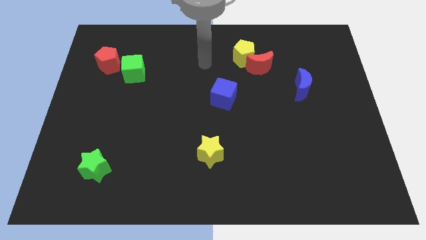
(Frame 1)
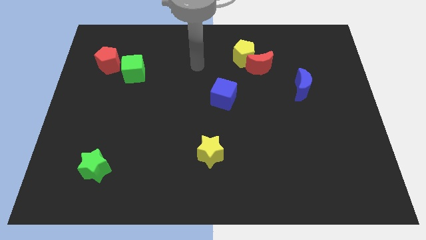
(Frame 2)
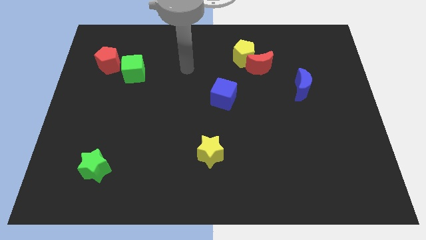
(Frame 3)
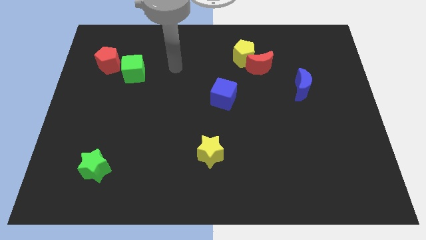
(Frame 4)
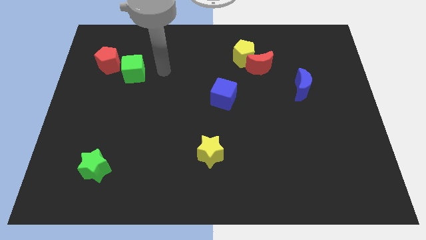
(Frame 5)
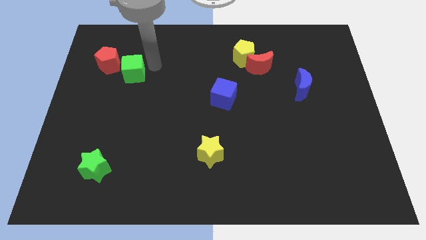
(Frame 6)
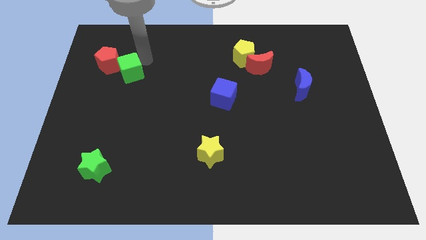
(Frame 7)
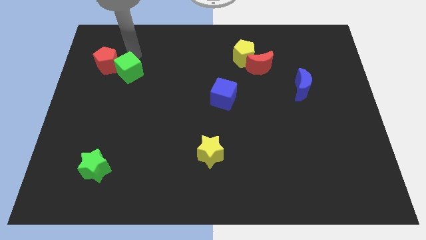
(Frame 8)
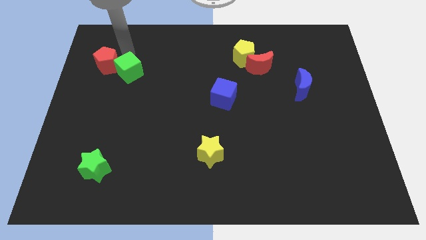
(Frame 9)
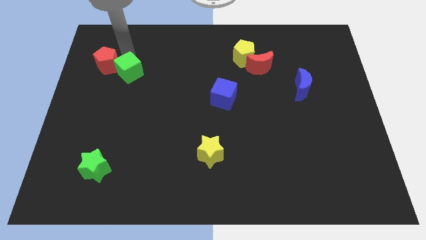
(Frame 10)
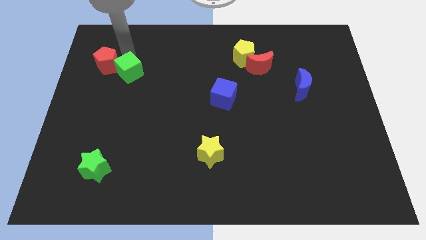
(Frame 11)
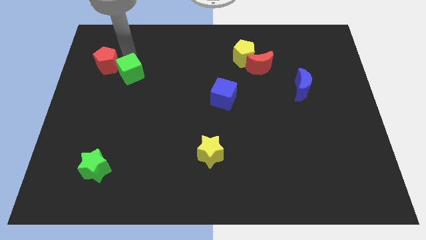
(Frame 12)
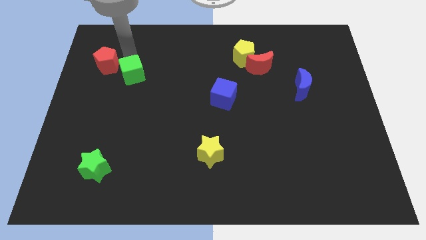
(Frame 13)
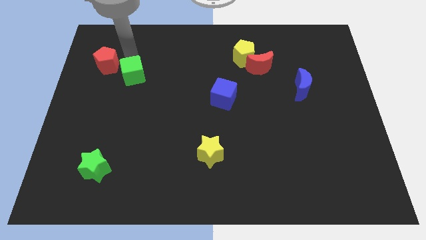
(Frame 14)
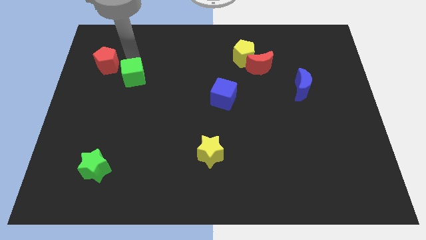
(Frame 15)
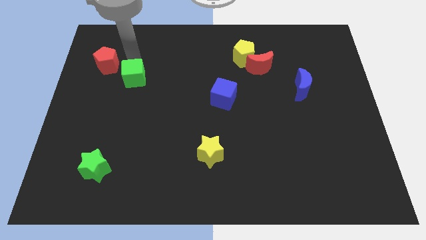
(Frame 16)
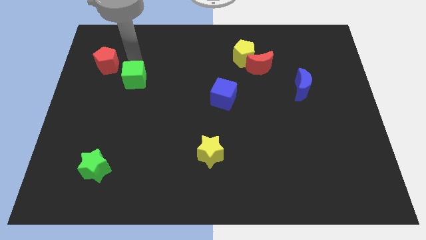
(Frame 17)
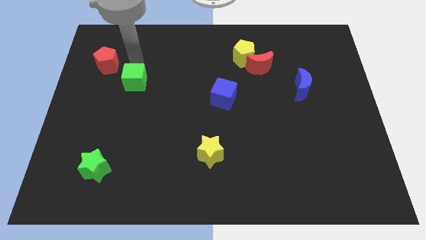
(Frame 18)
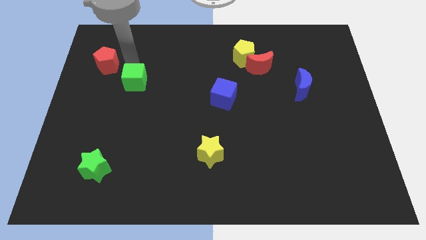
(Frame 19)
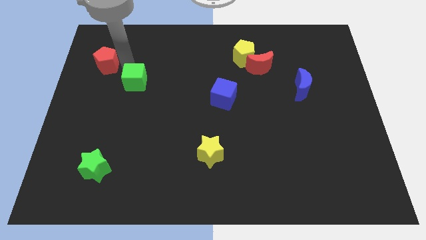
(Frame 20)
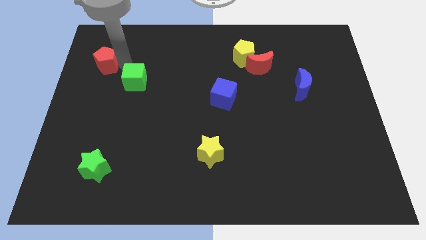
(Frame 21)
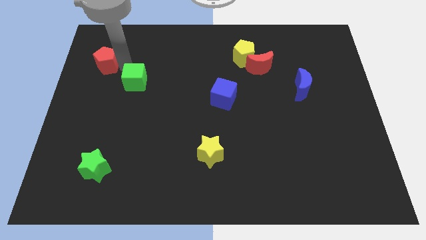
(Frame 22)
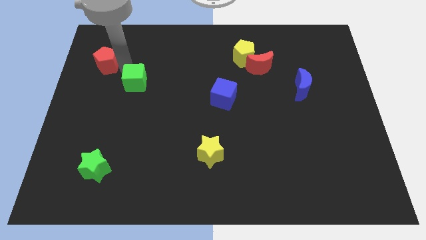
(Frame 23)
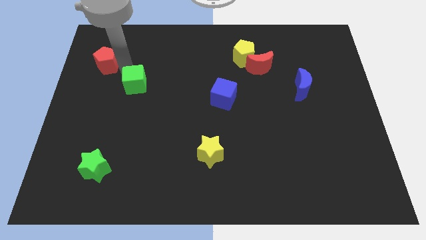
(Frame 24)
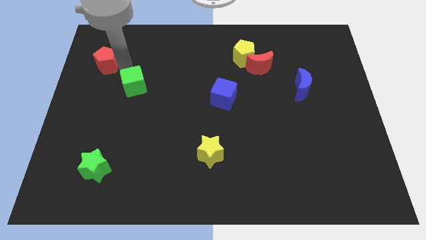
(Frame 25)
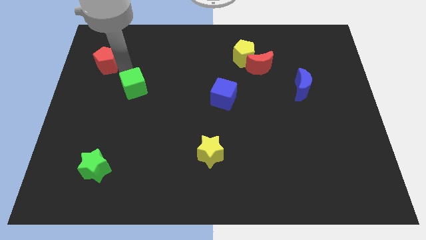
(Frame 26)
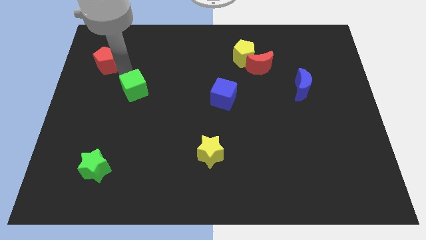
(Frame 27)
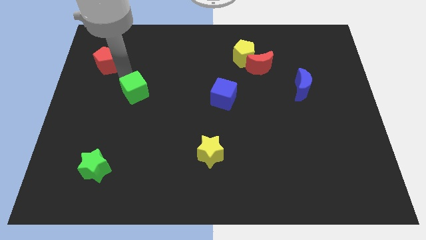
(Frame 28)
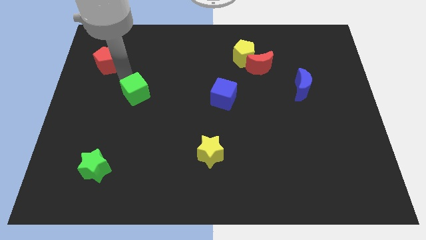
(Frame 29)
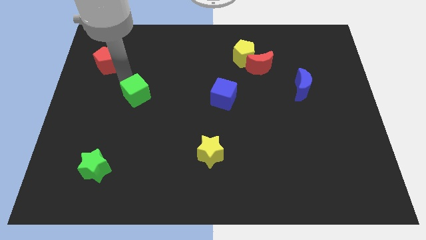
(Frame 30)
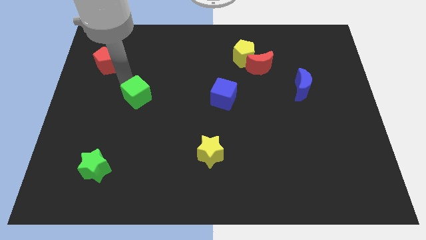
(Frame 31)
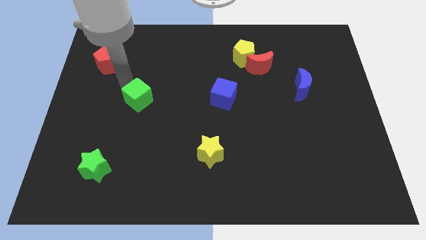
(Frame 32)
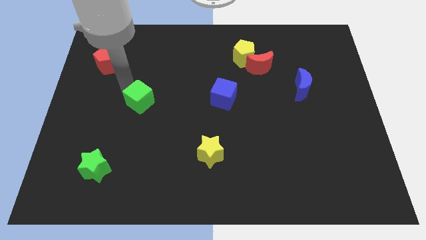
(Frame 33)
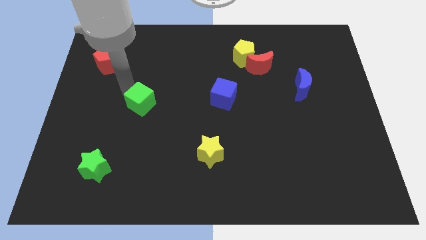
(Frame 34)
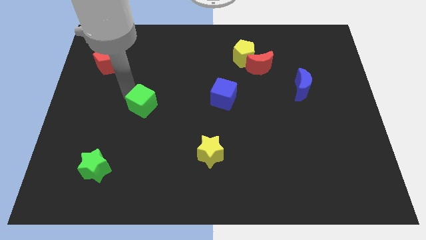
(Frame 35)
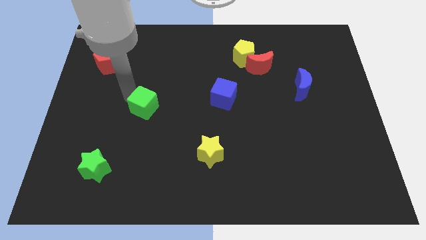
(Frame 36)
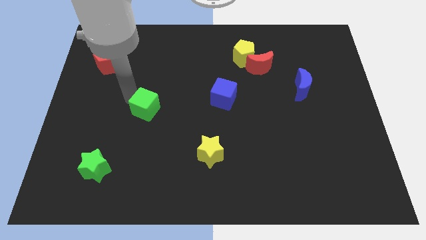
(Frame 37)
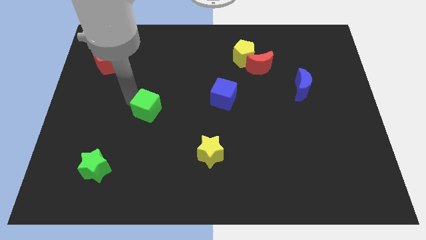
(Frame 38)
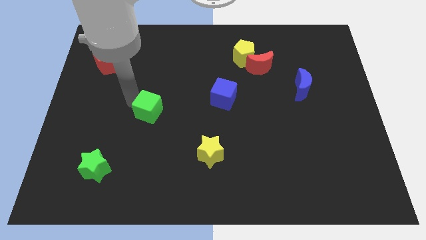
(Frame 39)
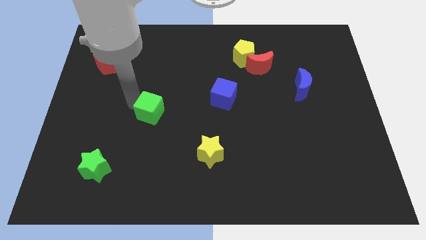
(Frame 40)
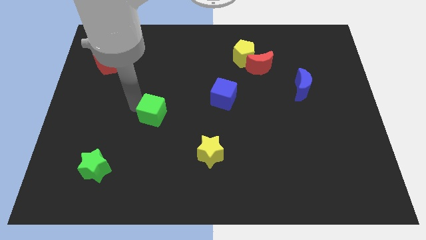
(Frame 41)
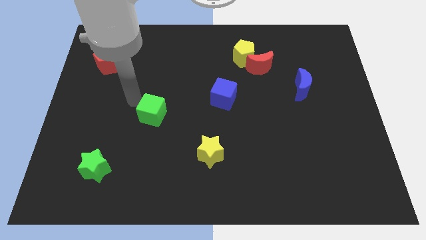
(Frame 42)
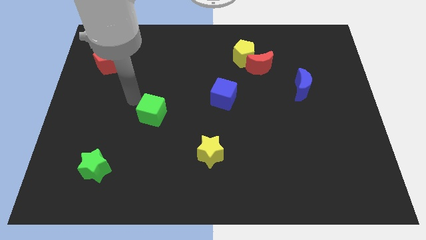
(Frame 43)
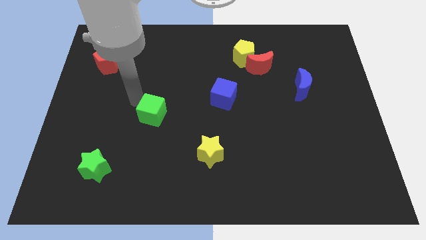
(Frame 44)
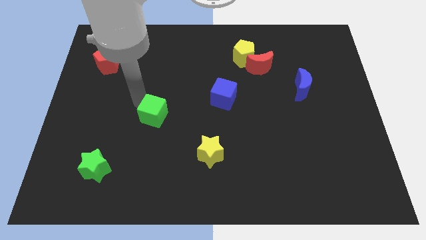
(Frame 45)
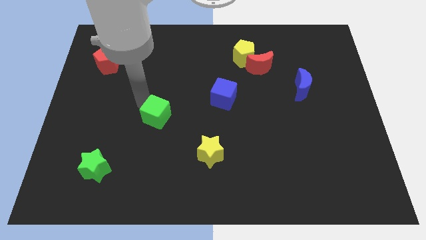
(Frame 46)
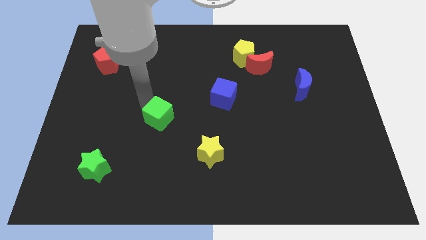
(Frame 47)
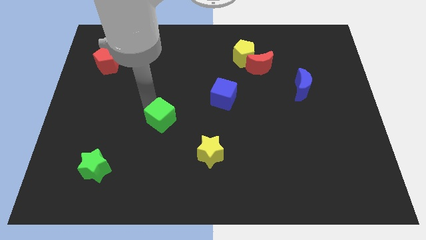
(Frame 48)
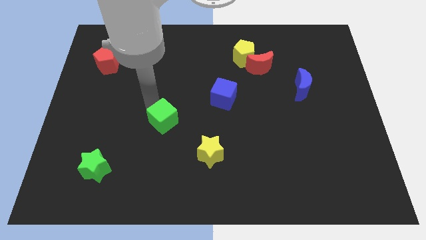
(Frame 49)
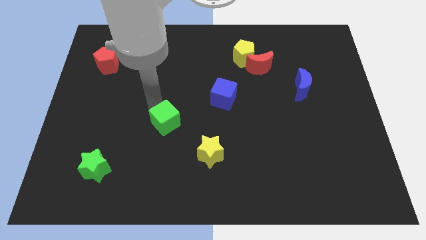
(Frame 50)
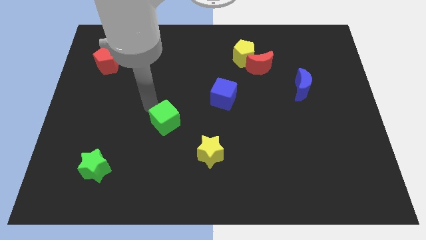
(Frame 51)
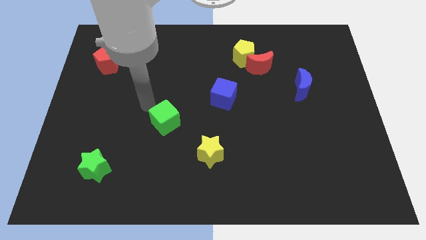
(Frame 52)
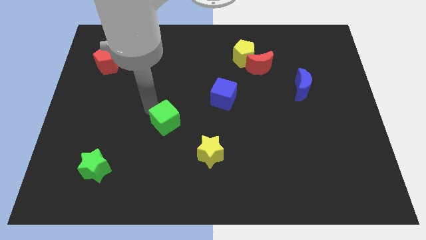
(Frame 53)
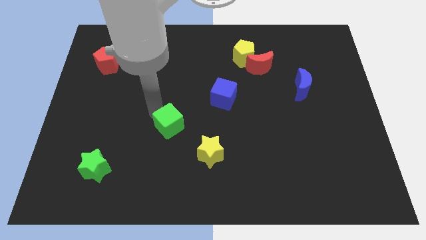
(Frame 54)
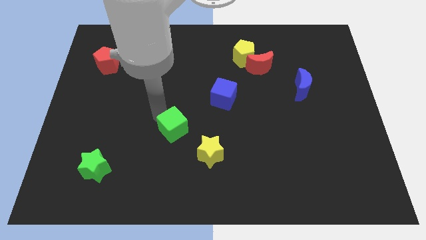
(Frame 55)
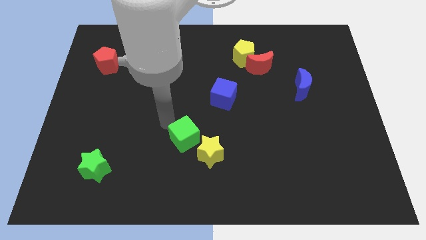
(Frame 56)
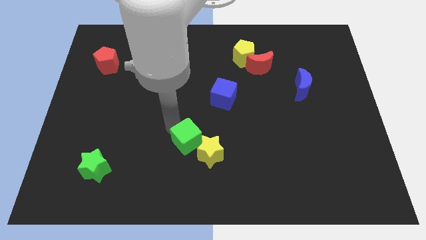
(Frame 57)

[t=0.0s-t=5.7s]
push the green cube to the yellow star

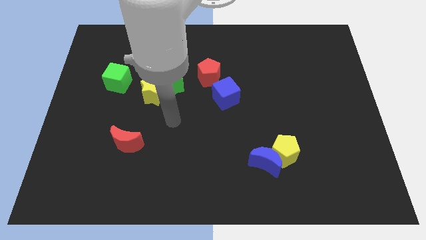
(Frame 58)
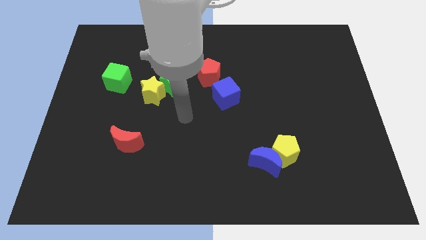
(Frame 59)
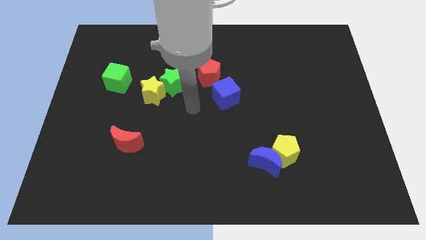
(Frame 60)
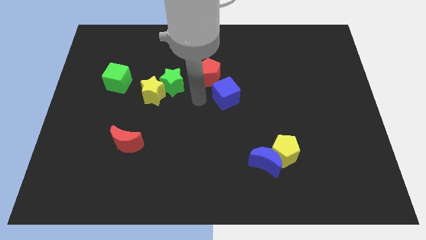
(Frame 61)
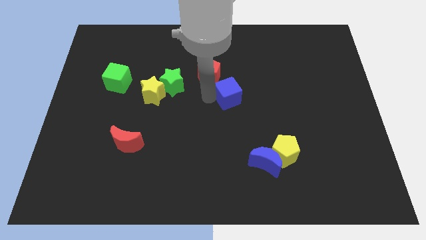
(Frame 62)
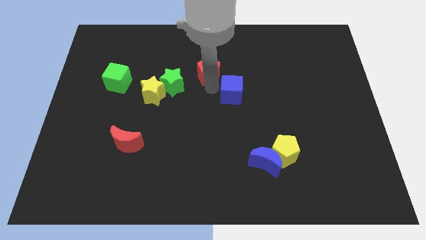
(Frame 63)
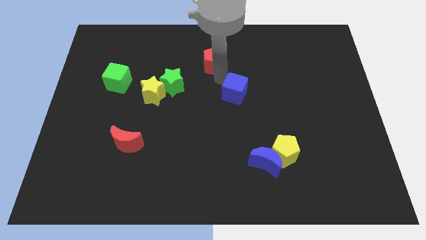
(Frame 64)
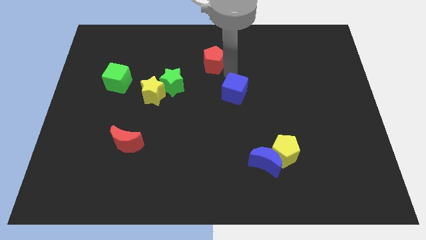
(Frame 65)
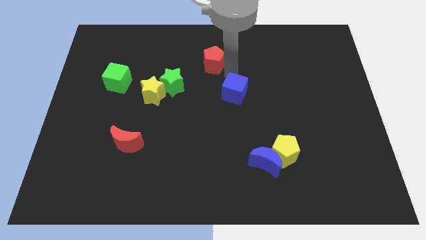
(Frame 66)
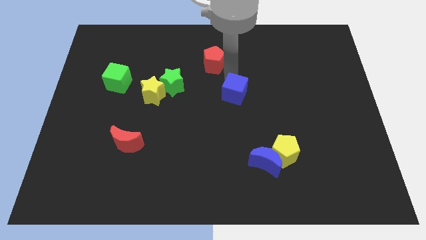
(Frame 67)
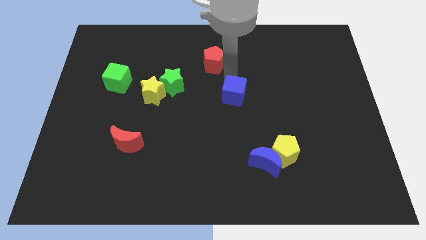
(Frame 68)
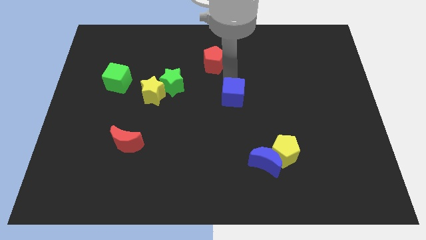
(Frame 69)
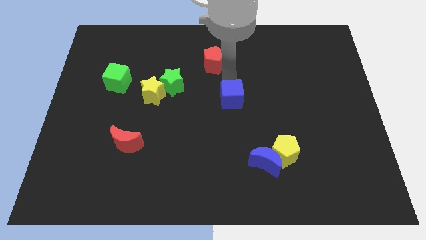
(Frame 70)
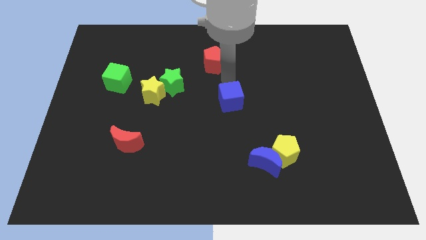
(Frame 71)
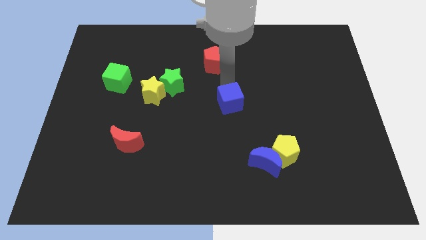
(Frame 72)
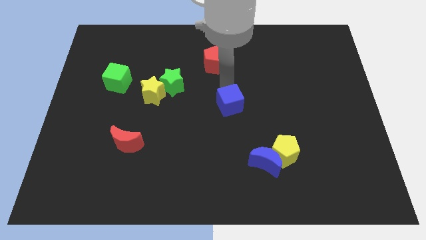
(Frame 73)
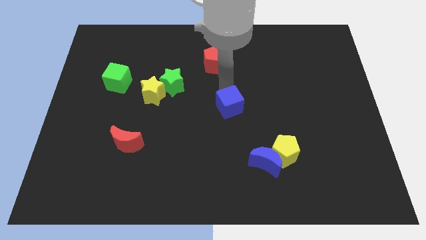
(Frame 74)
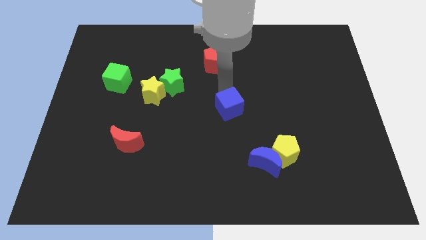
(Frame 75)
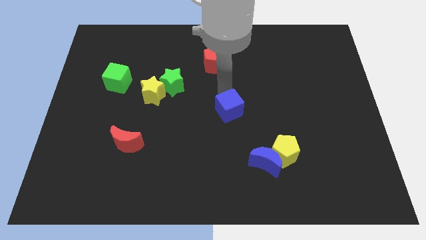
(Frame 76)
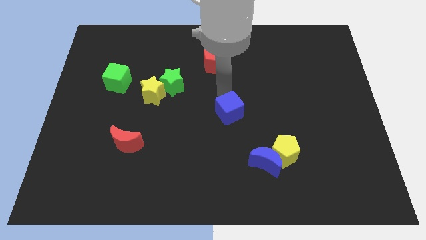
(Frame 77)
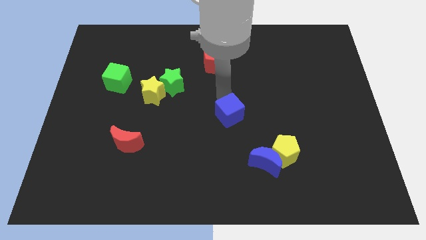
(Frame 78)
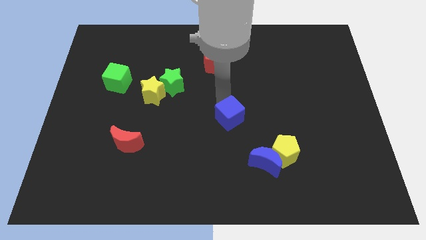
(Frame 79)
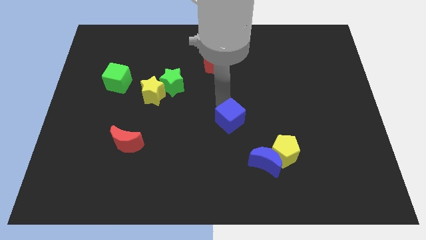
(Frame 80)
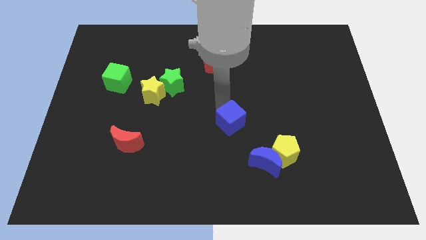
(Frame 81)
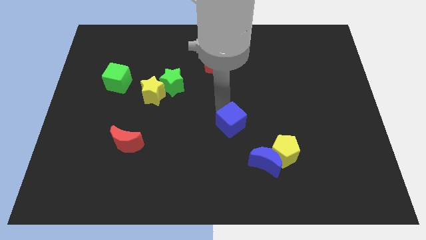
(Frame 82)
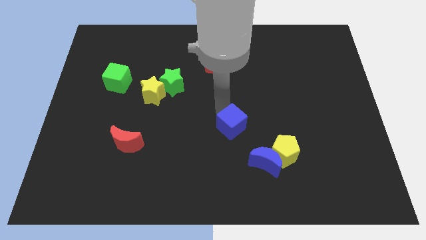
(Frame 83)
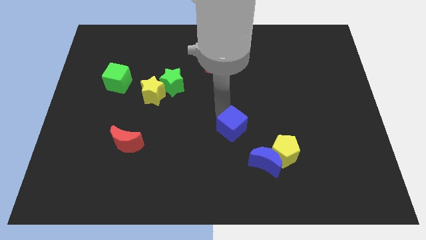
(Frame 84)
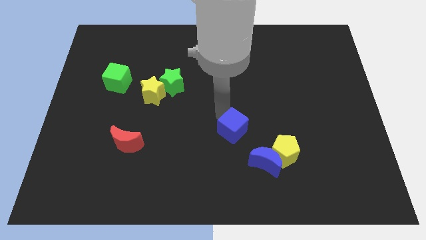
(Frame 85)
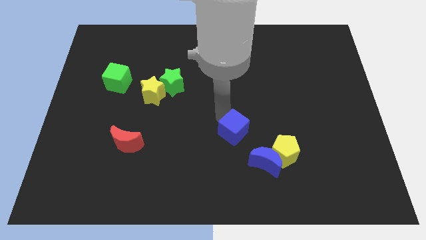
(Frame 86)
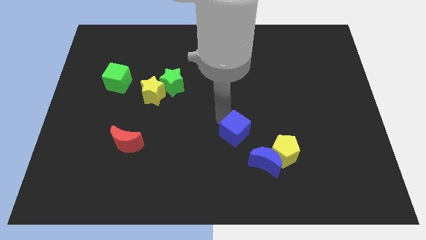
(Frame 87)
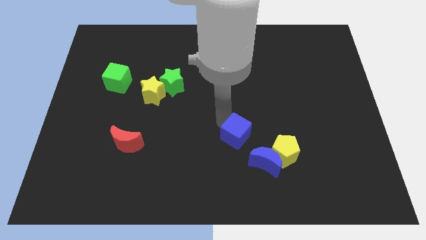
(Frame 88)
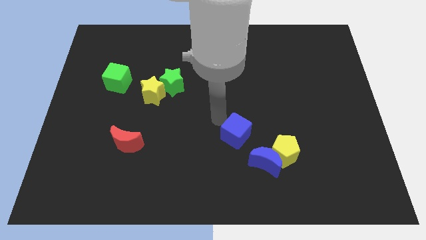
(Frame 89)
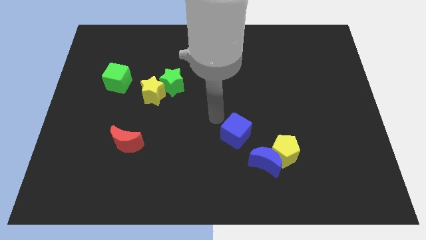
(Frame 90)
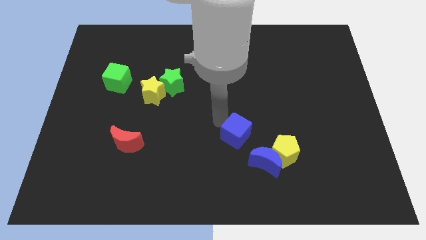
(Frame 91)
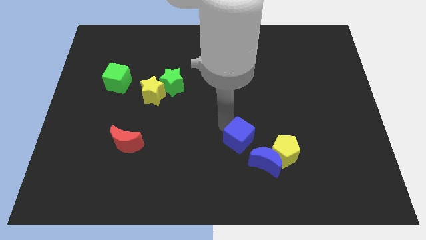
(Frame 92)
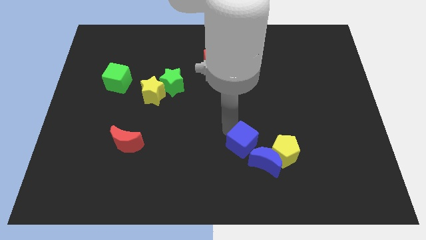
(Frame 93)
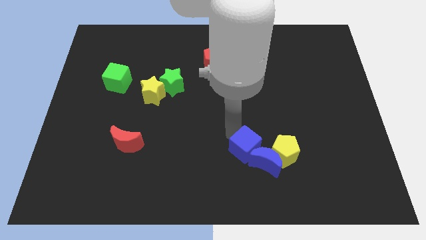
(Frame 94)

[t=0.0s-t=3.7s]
move the blue cube next to the blue moon
